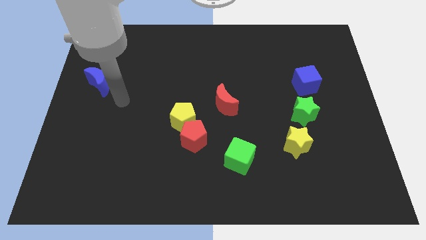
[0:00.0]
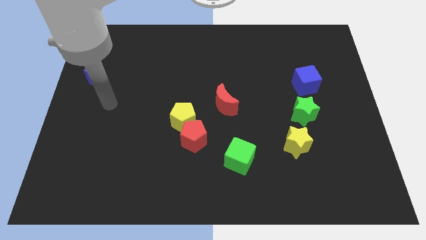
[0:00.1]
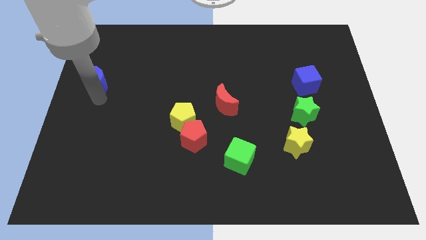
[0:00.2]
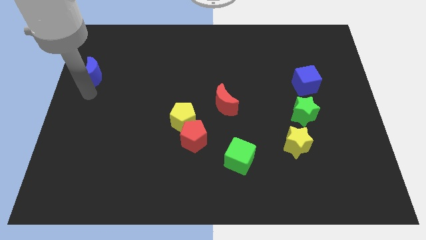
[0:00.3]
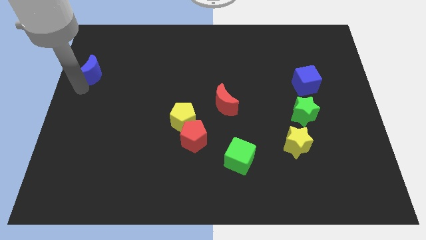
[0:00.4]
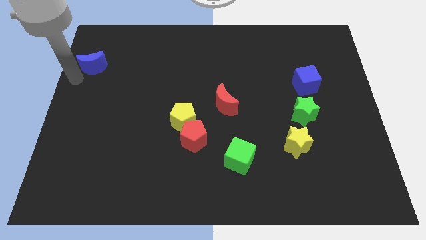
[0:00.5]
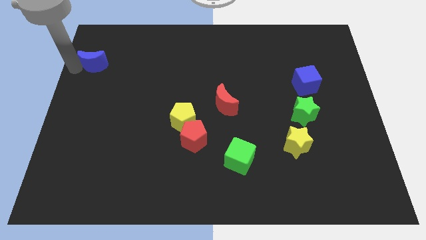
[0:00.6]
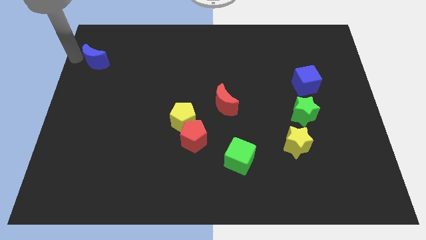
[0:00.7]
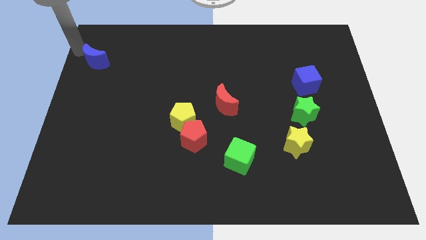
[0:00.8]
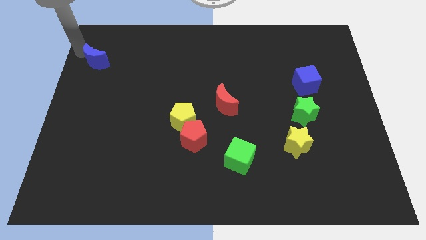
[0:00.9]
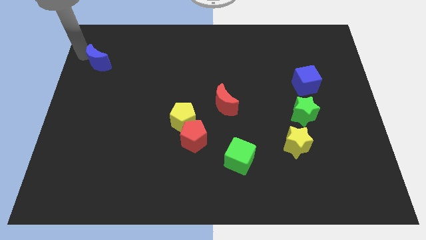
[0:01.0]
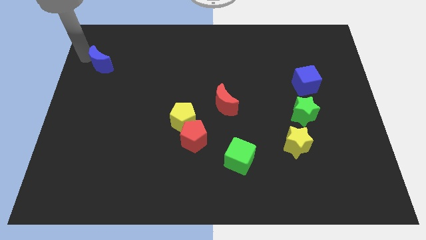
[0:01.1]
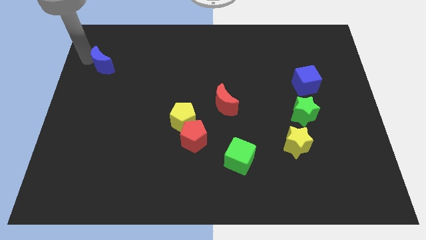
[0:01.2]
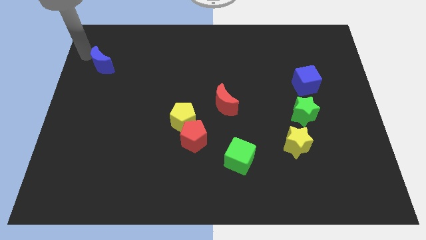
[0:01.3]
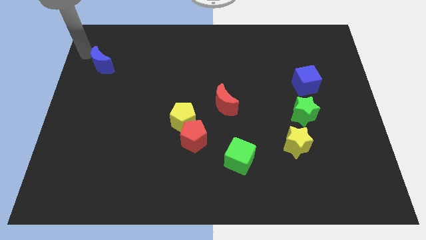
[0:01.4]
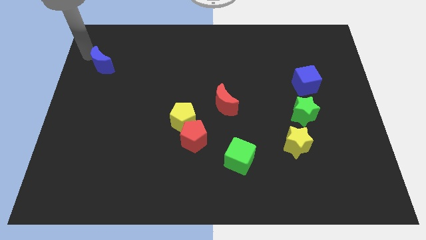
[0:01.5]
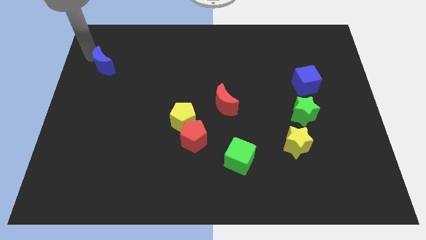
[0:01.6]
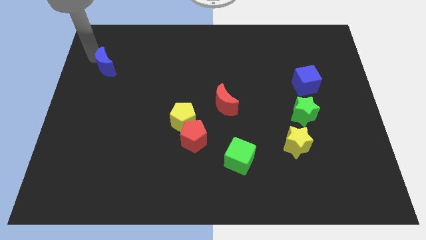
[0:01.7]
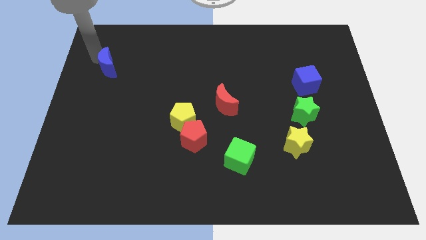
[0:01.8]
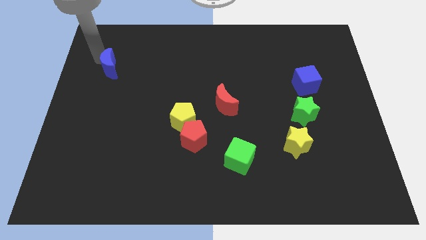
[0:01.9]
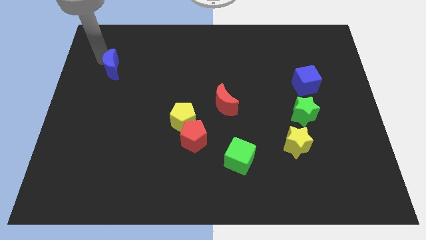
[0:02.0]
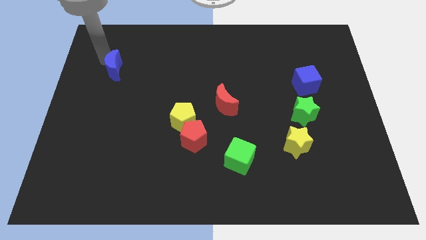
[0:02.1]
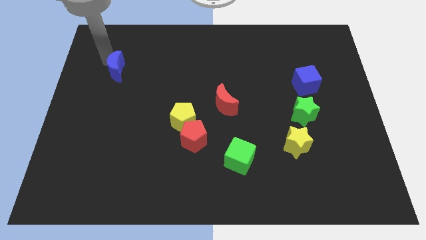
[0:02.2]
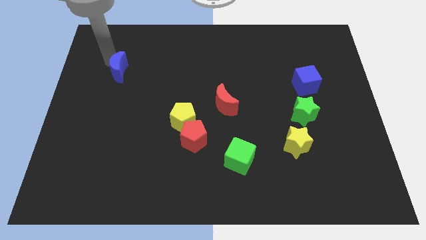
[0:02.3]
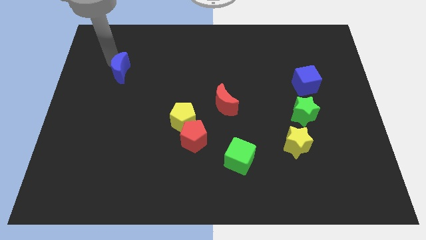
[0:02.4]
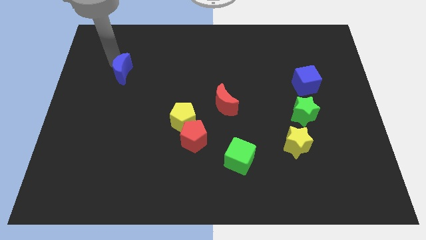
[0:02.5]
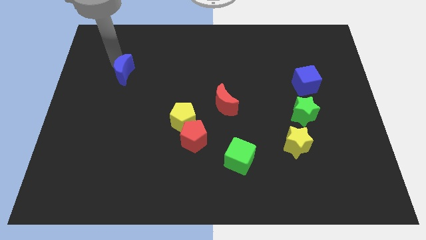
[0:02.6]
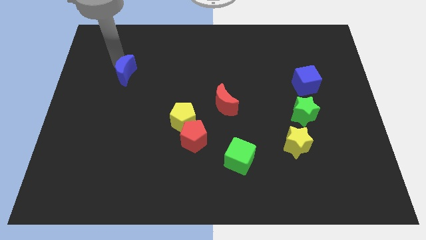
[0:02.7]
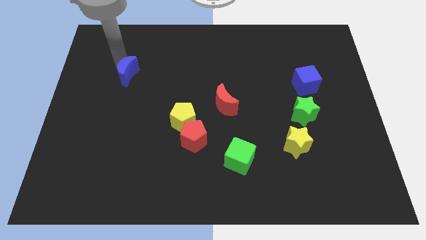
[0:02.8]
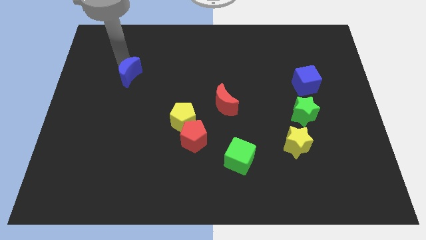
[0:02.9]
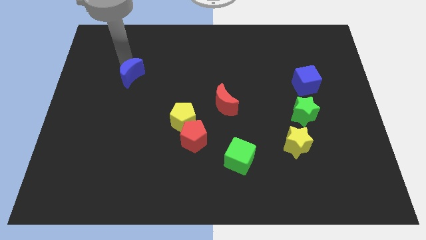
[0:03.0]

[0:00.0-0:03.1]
slightly push the blue moon to the right

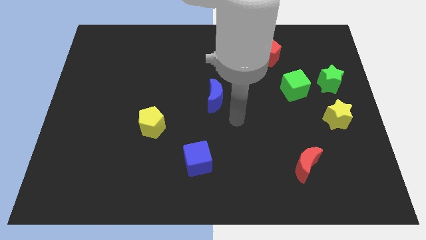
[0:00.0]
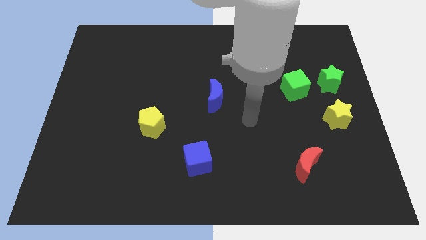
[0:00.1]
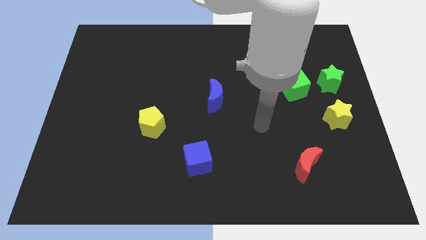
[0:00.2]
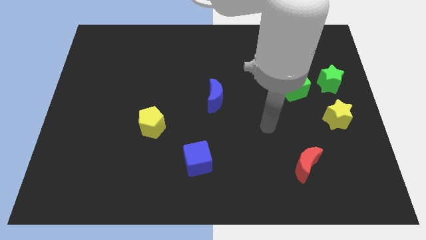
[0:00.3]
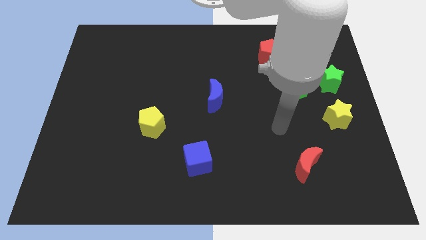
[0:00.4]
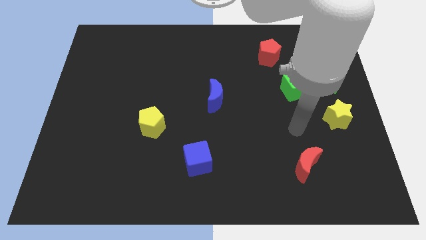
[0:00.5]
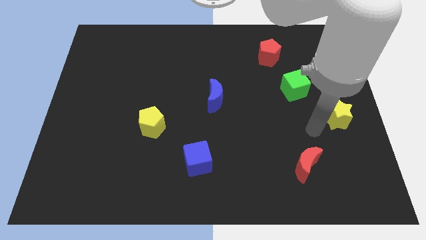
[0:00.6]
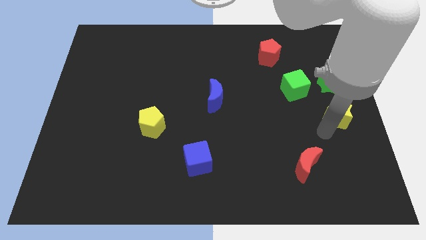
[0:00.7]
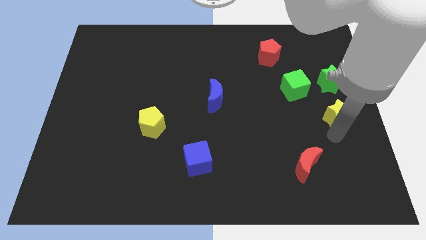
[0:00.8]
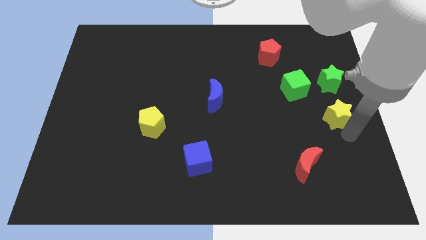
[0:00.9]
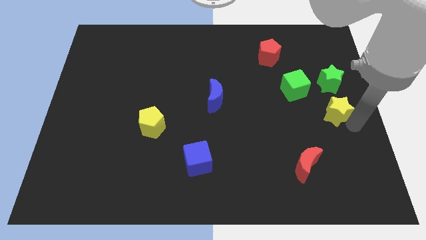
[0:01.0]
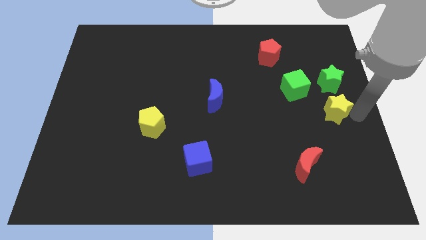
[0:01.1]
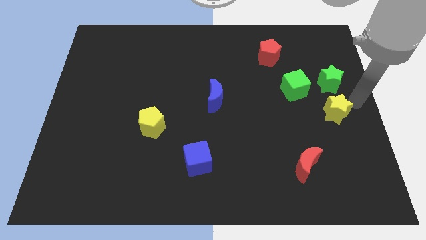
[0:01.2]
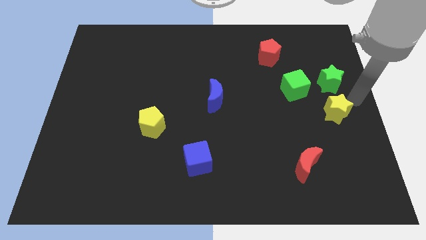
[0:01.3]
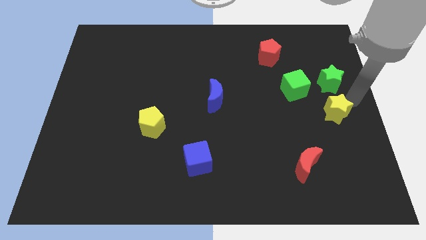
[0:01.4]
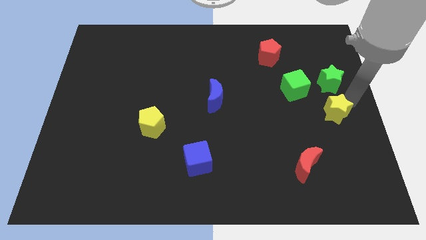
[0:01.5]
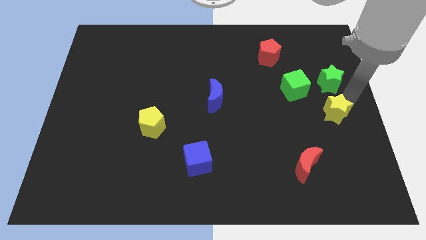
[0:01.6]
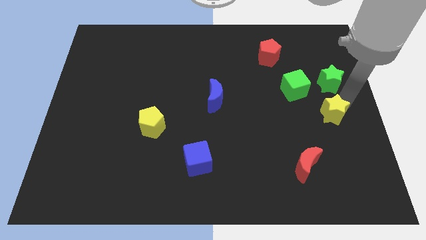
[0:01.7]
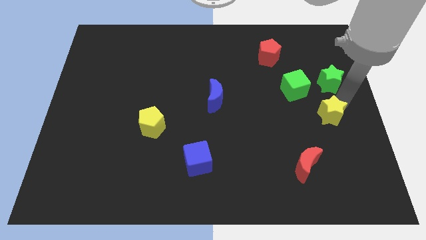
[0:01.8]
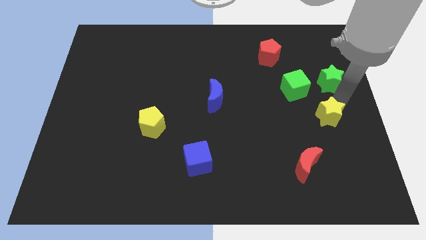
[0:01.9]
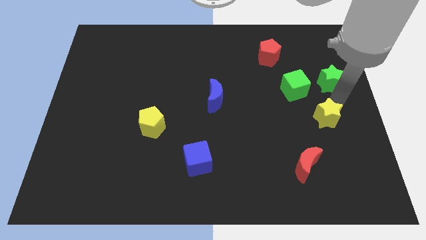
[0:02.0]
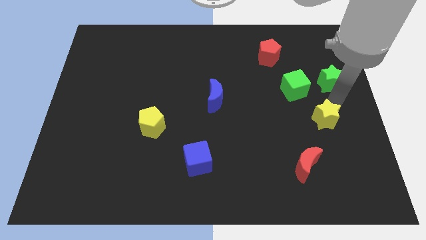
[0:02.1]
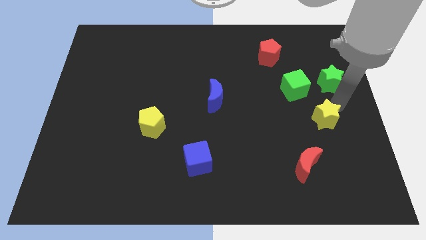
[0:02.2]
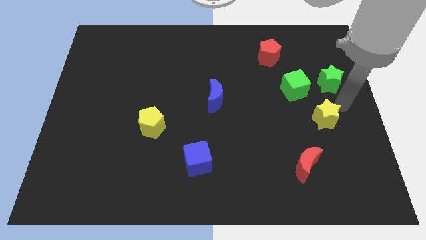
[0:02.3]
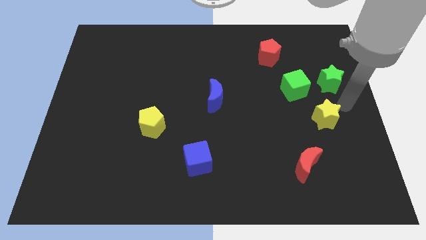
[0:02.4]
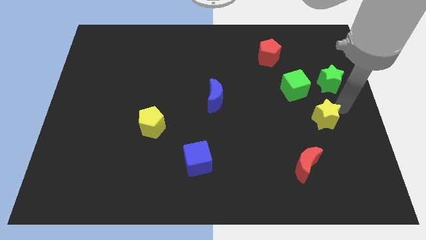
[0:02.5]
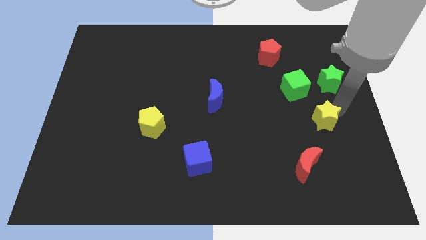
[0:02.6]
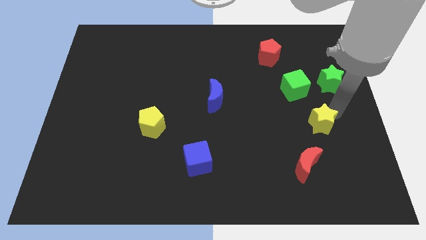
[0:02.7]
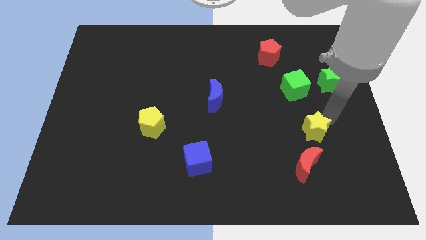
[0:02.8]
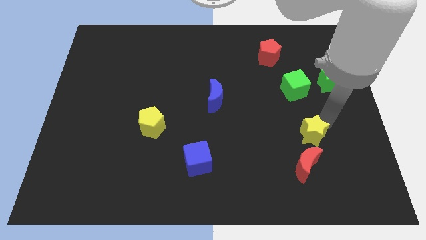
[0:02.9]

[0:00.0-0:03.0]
slide the yellow star diagonally down and left somewhat

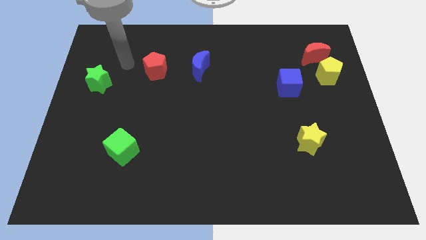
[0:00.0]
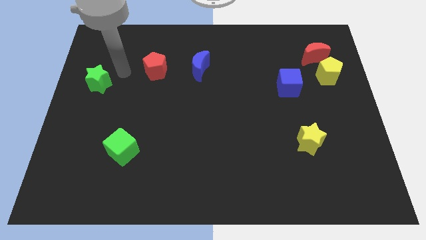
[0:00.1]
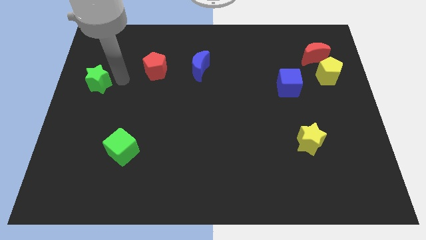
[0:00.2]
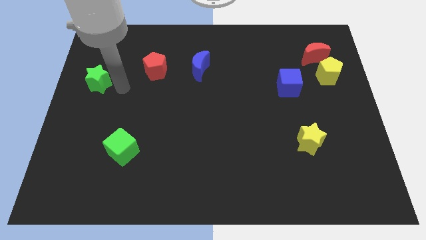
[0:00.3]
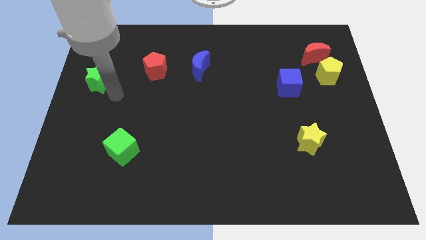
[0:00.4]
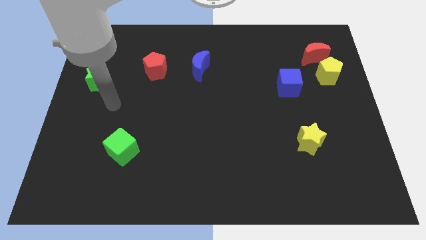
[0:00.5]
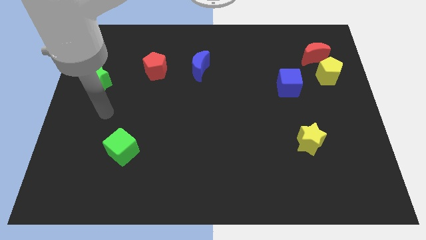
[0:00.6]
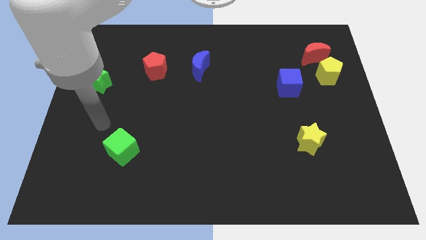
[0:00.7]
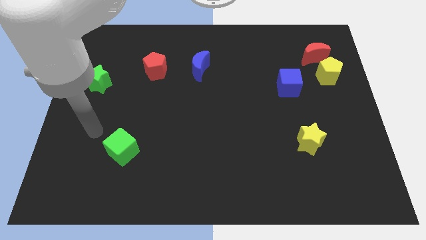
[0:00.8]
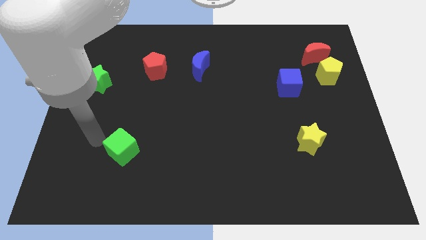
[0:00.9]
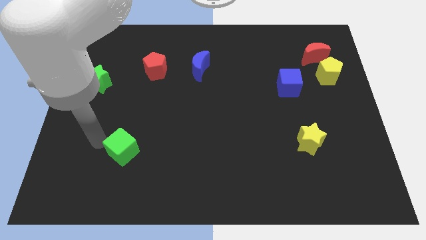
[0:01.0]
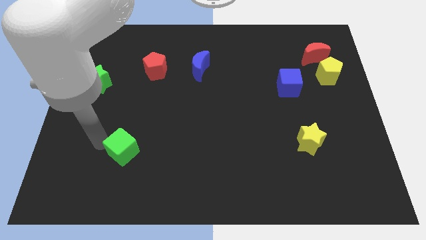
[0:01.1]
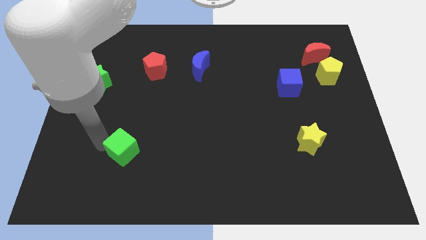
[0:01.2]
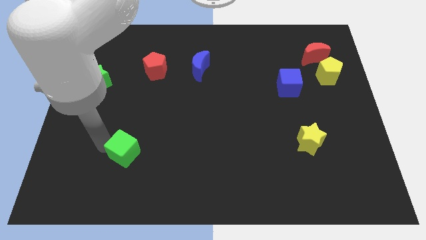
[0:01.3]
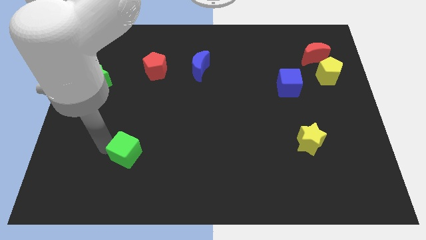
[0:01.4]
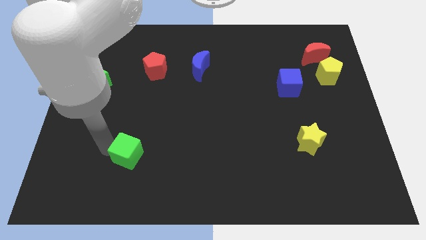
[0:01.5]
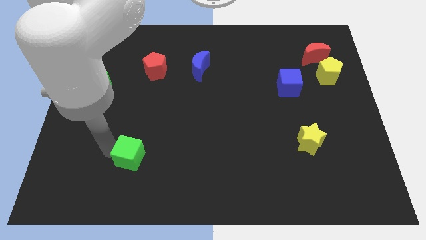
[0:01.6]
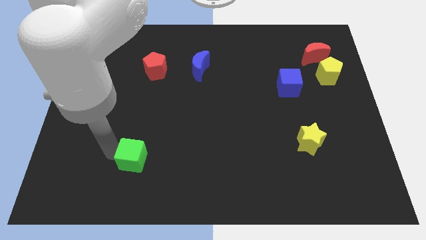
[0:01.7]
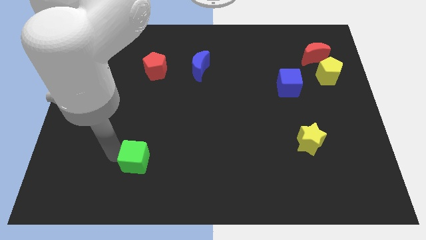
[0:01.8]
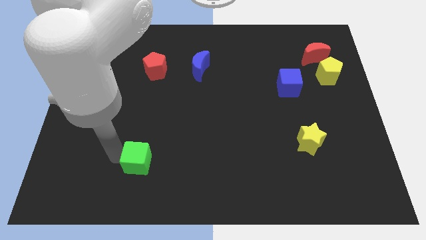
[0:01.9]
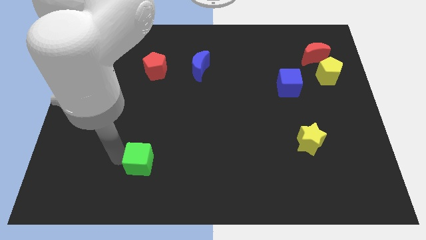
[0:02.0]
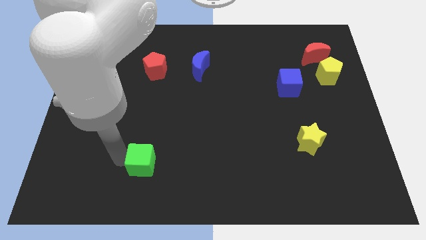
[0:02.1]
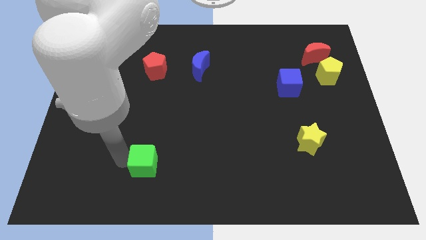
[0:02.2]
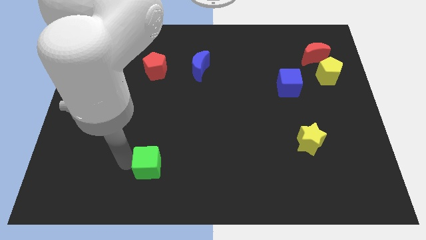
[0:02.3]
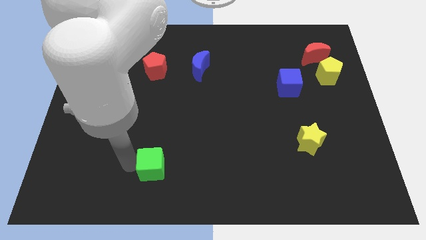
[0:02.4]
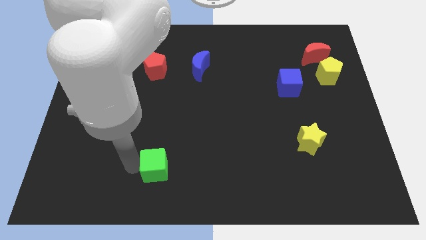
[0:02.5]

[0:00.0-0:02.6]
push the green cube to the right slightly
